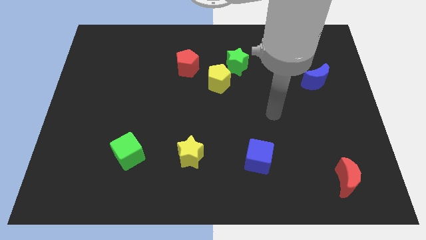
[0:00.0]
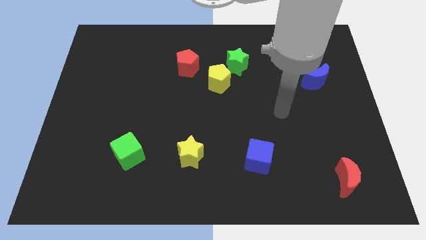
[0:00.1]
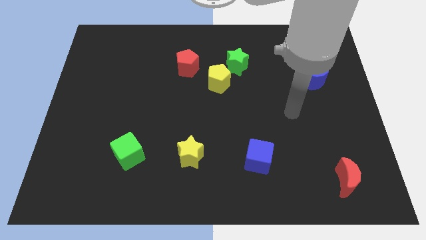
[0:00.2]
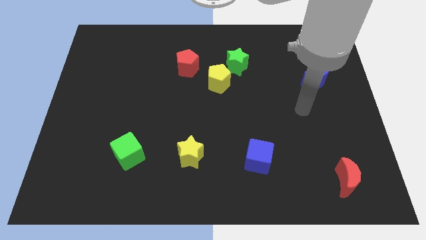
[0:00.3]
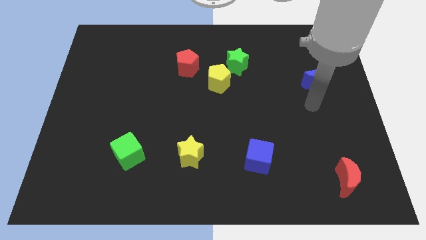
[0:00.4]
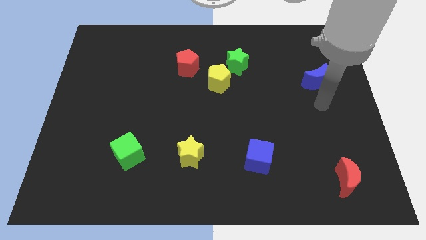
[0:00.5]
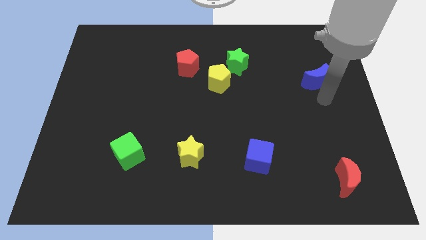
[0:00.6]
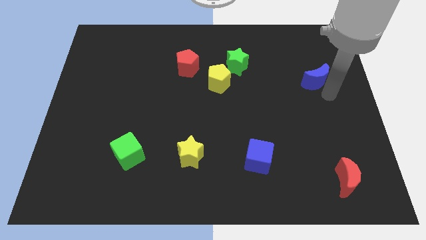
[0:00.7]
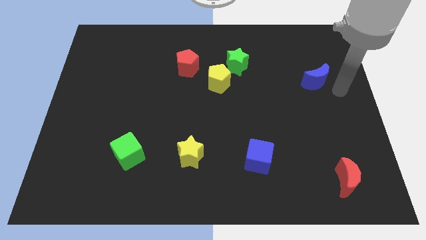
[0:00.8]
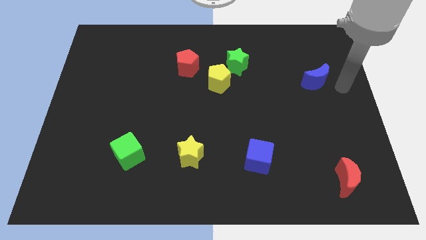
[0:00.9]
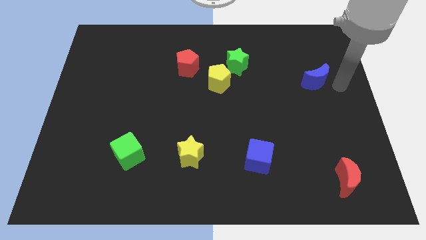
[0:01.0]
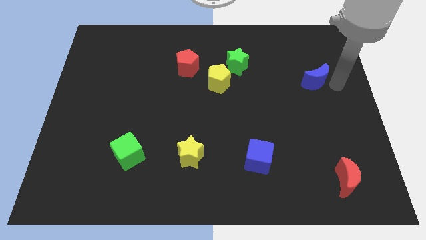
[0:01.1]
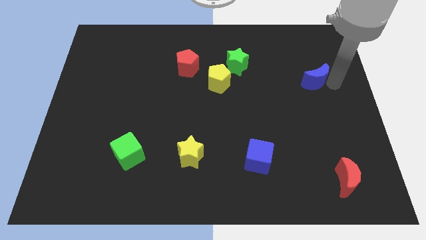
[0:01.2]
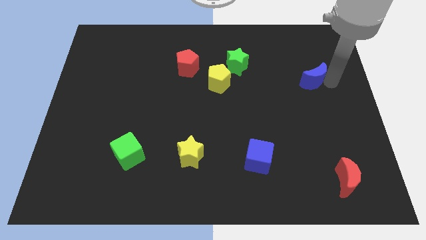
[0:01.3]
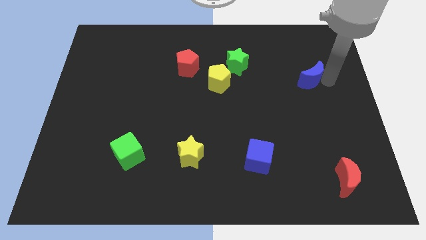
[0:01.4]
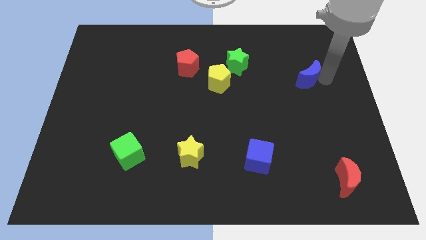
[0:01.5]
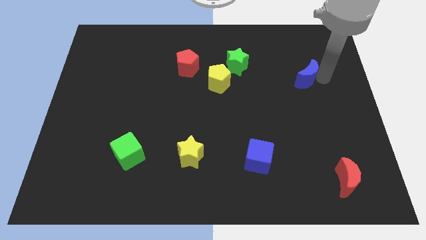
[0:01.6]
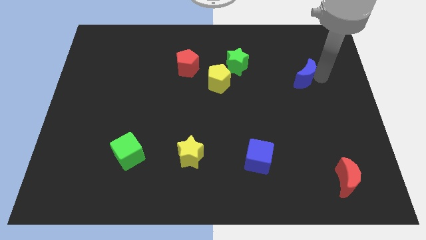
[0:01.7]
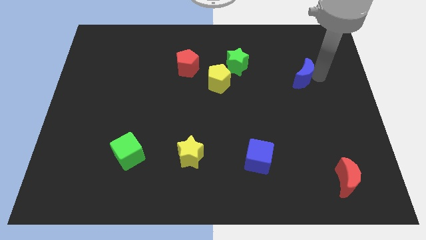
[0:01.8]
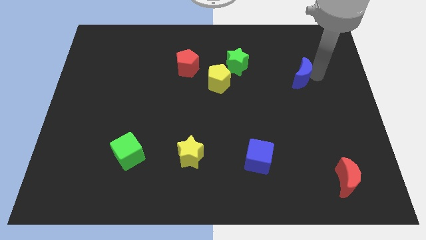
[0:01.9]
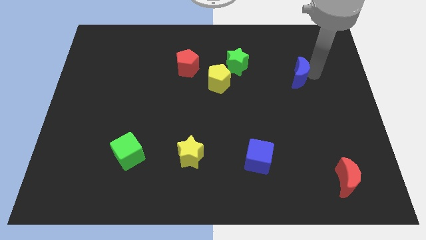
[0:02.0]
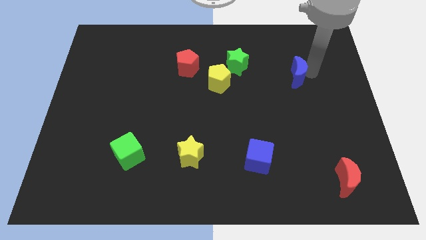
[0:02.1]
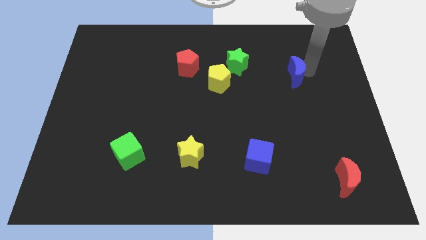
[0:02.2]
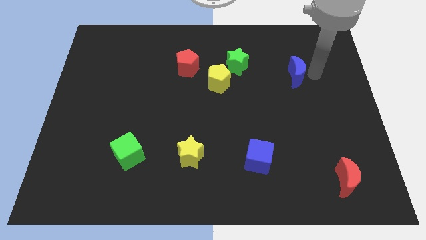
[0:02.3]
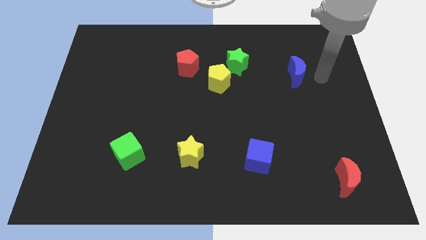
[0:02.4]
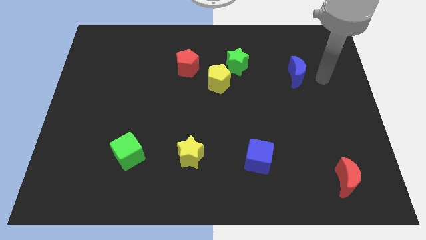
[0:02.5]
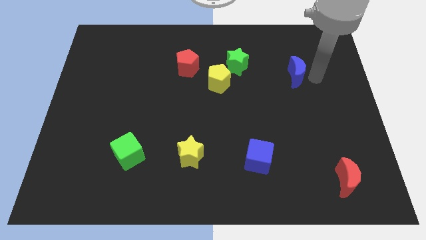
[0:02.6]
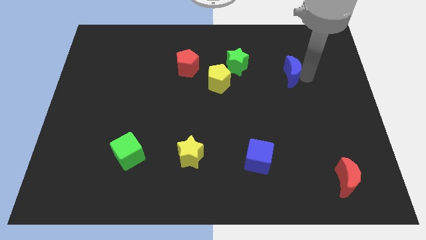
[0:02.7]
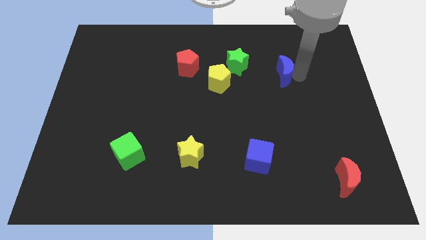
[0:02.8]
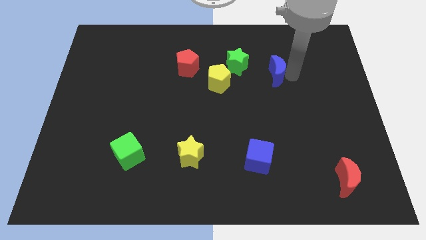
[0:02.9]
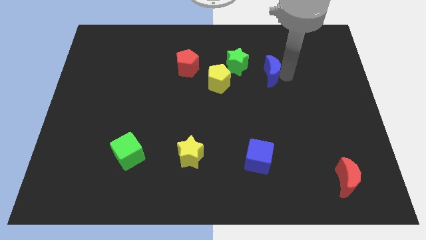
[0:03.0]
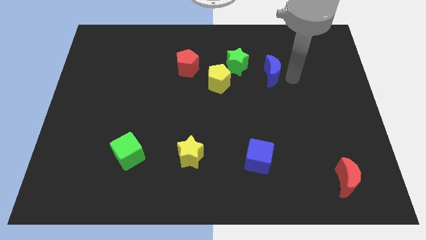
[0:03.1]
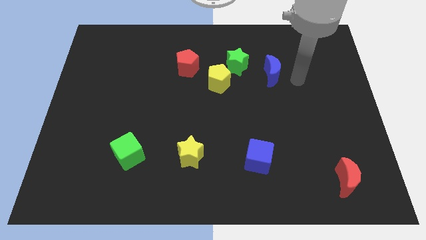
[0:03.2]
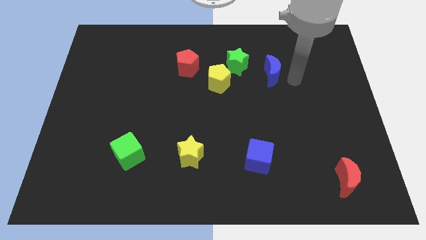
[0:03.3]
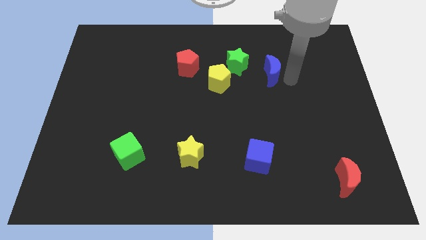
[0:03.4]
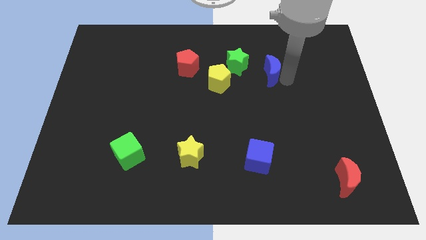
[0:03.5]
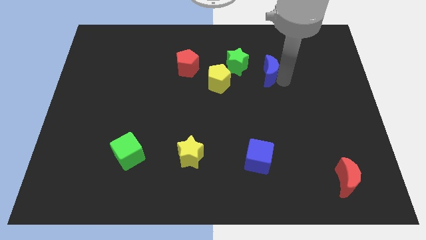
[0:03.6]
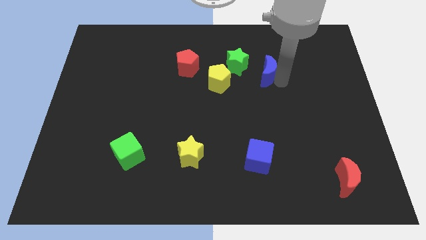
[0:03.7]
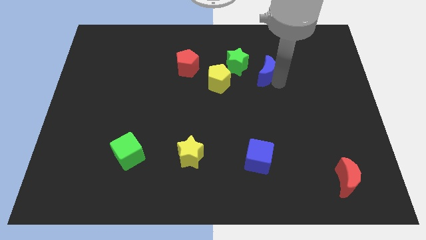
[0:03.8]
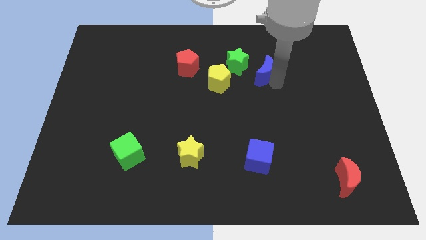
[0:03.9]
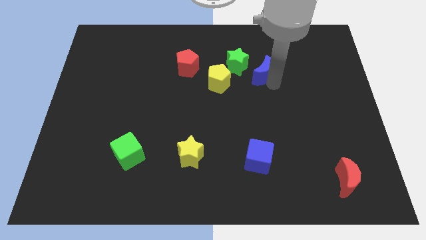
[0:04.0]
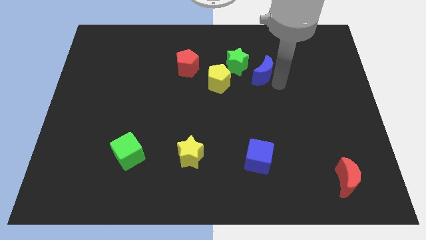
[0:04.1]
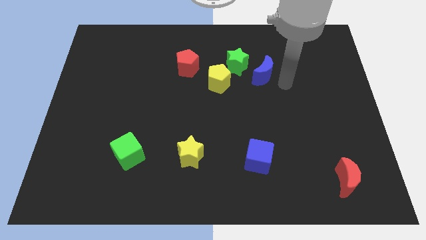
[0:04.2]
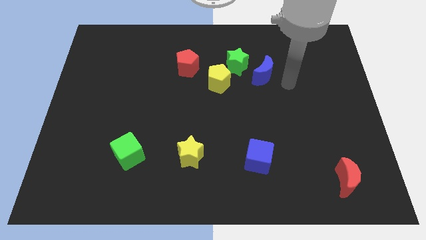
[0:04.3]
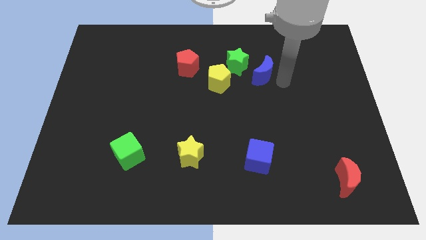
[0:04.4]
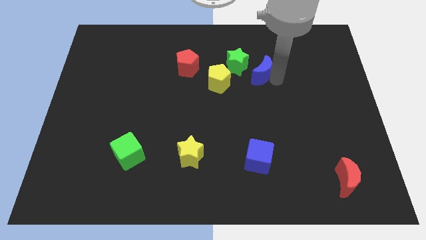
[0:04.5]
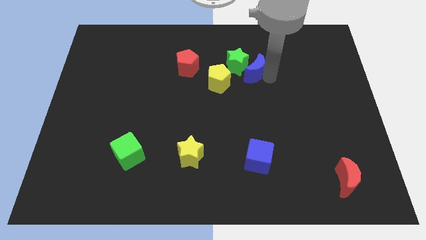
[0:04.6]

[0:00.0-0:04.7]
move the blue moon close to the green star

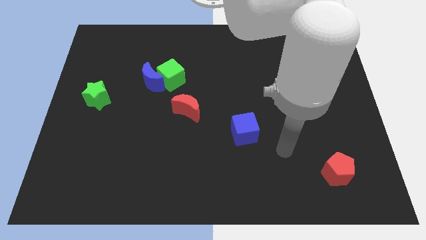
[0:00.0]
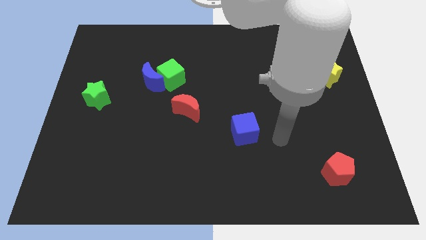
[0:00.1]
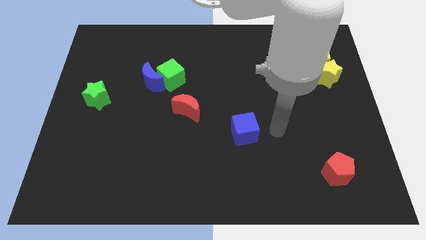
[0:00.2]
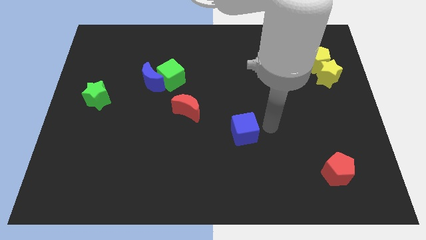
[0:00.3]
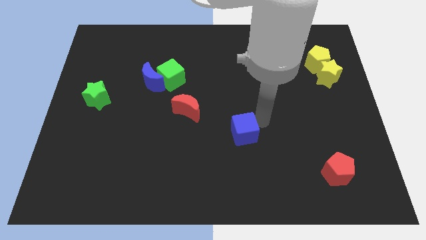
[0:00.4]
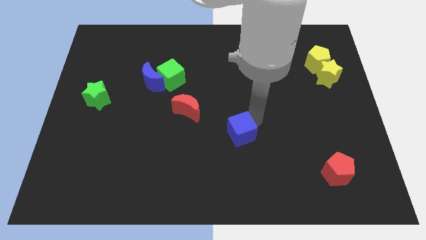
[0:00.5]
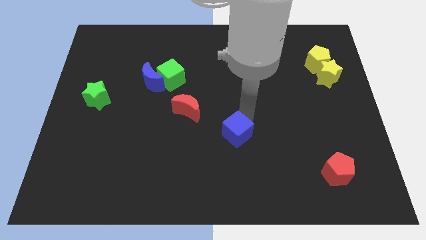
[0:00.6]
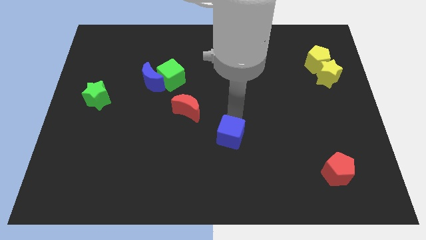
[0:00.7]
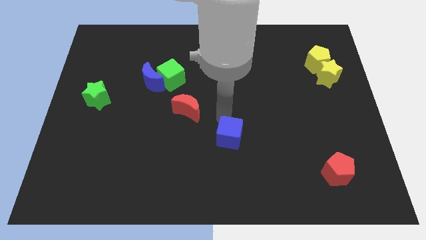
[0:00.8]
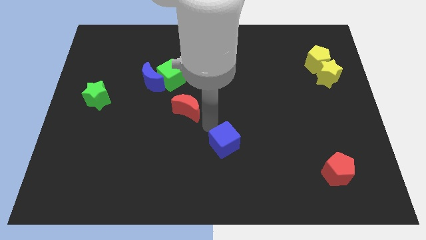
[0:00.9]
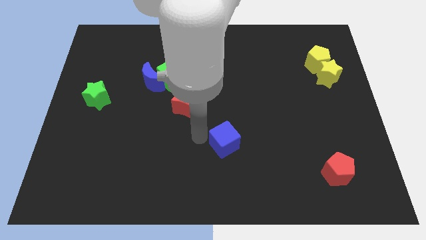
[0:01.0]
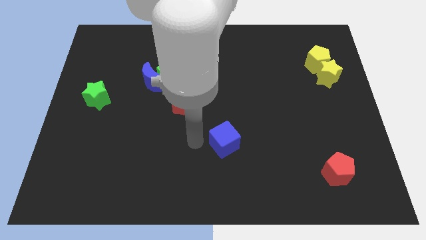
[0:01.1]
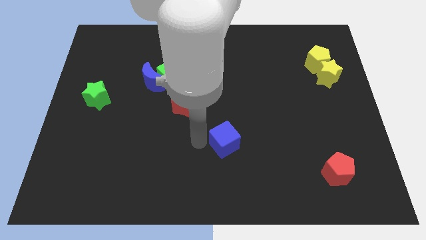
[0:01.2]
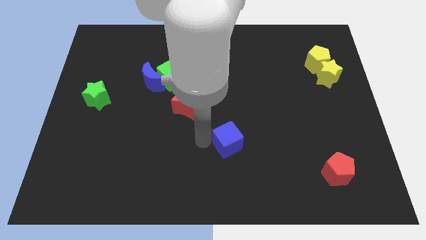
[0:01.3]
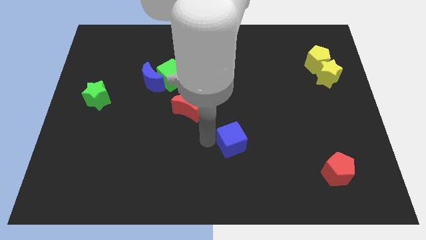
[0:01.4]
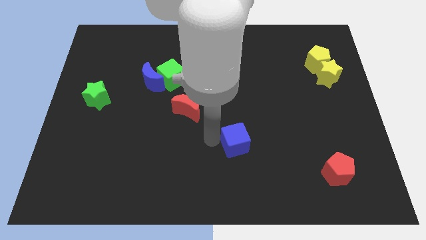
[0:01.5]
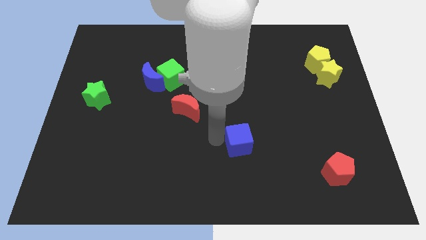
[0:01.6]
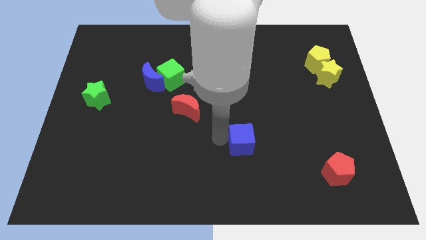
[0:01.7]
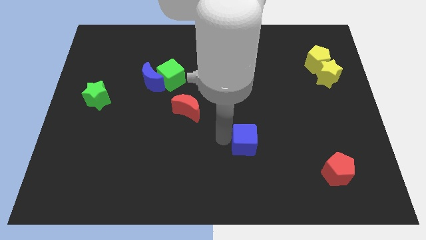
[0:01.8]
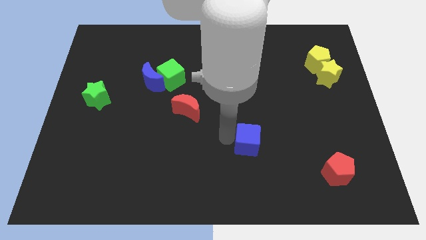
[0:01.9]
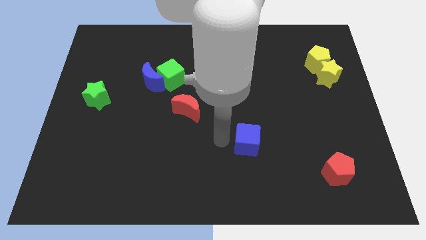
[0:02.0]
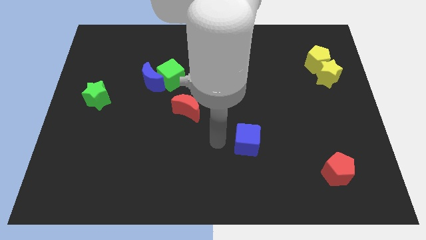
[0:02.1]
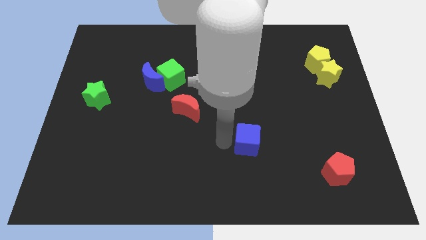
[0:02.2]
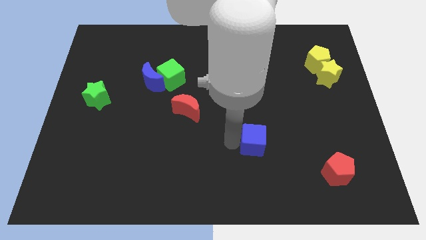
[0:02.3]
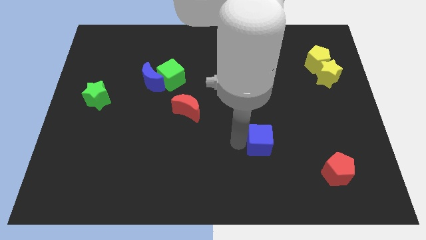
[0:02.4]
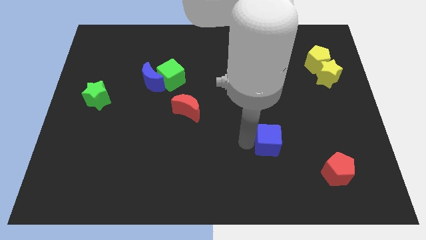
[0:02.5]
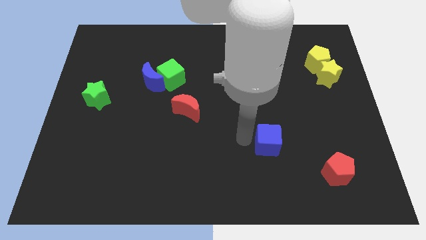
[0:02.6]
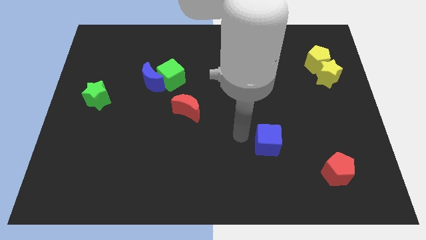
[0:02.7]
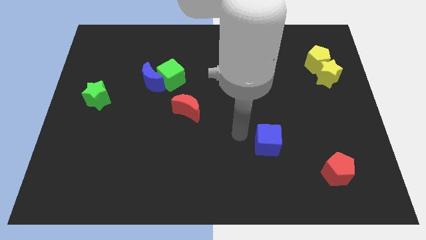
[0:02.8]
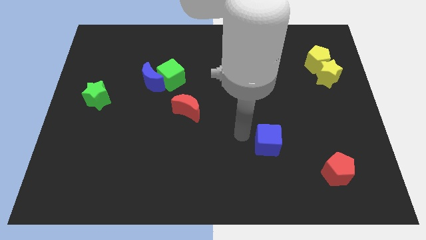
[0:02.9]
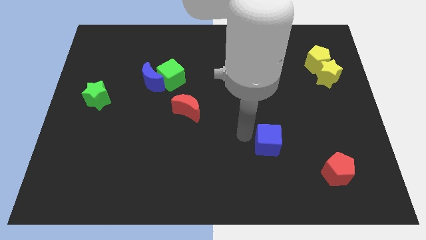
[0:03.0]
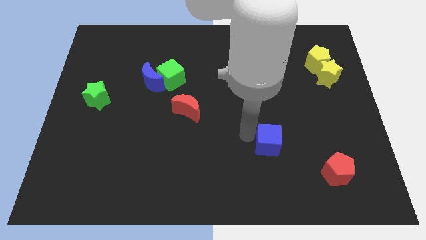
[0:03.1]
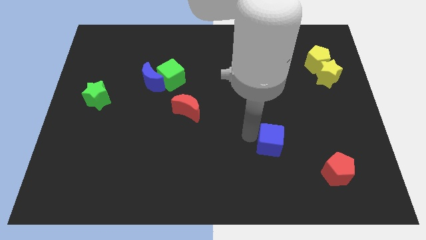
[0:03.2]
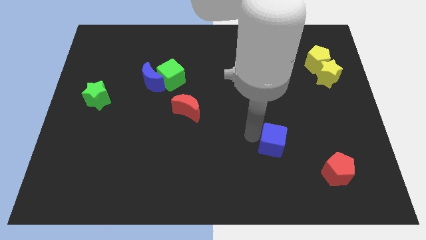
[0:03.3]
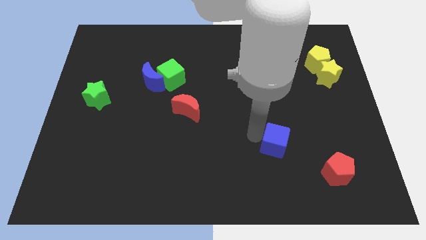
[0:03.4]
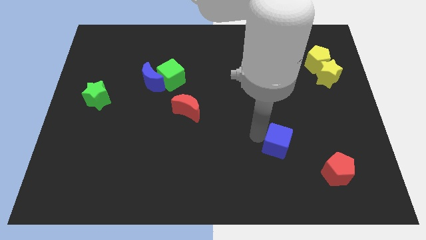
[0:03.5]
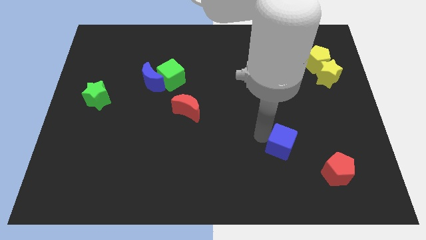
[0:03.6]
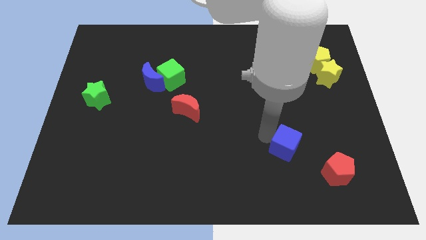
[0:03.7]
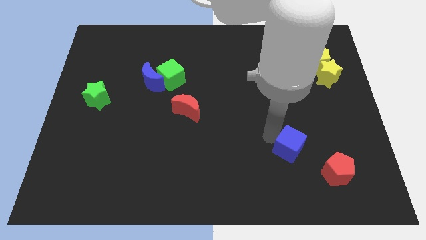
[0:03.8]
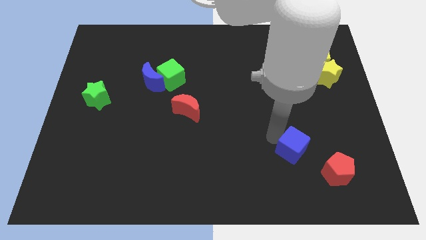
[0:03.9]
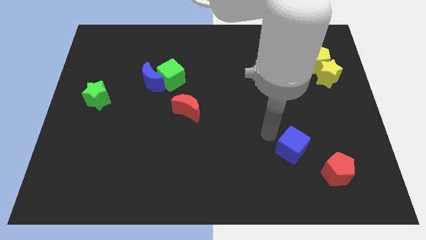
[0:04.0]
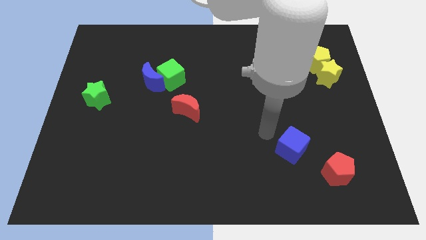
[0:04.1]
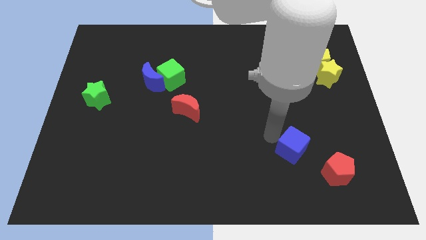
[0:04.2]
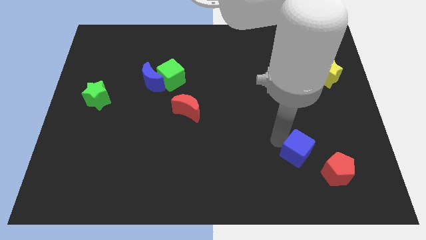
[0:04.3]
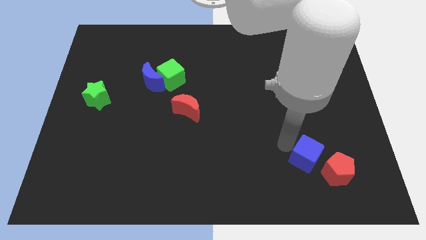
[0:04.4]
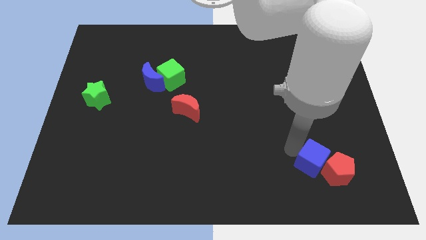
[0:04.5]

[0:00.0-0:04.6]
push the blue cube next to the red pentagon
